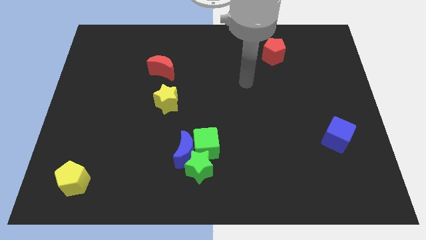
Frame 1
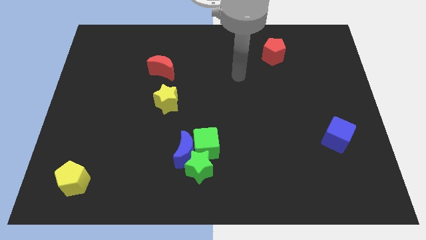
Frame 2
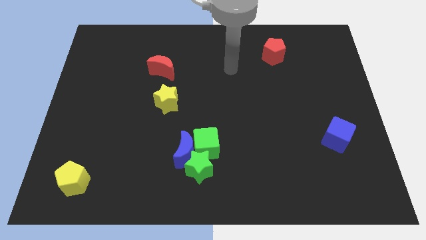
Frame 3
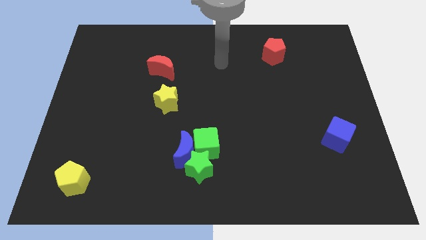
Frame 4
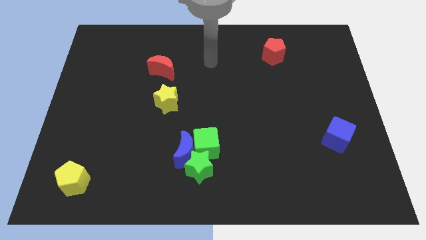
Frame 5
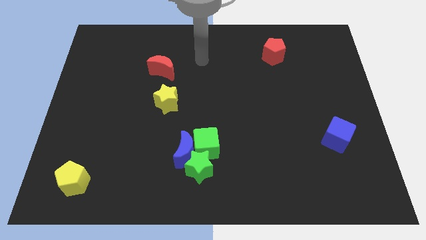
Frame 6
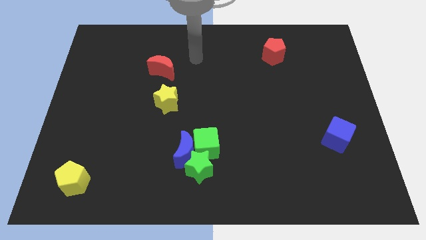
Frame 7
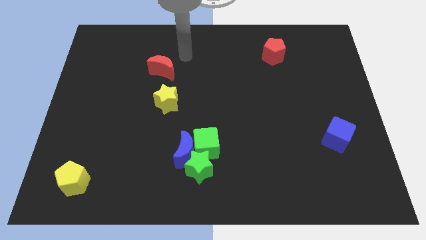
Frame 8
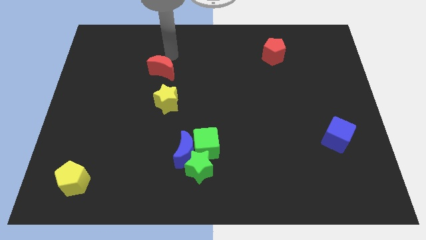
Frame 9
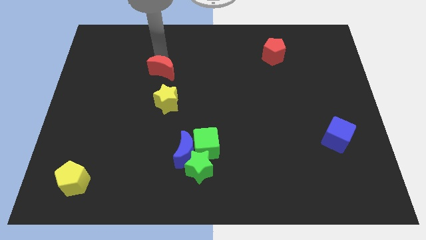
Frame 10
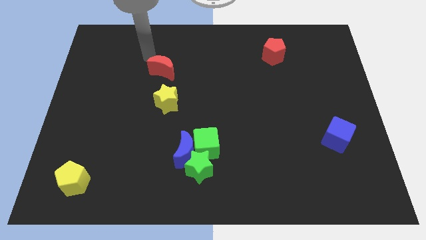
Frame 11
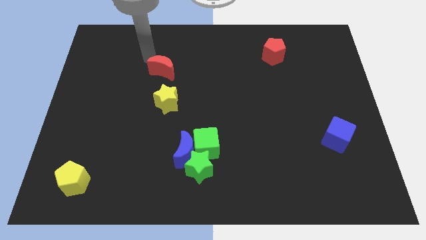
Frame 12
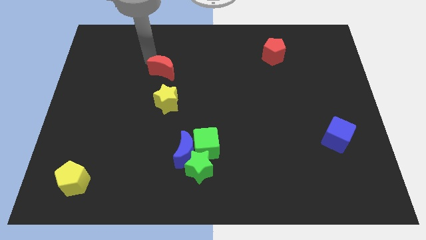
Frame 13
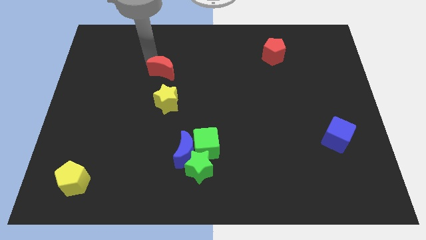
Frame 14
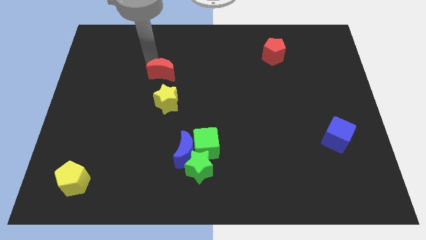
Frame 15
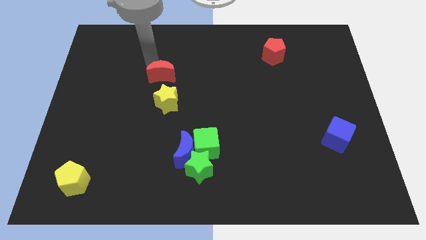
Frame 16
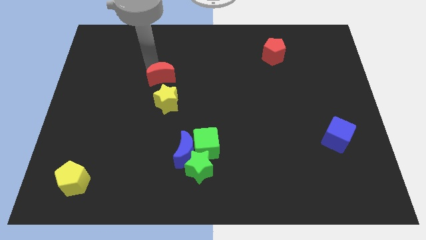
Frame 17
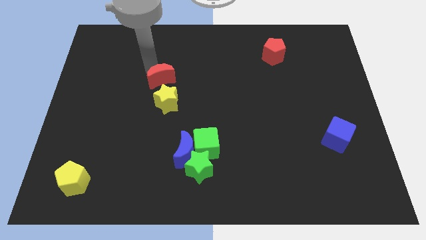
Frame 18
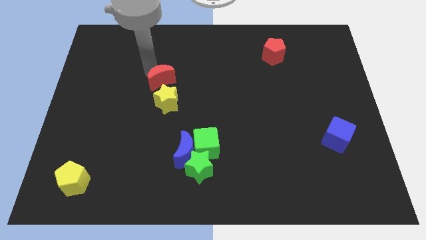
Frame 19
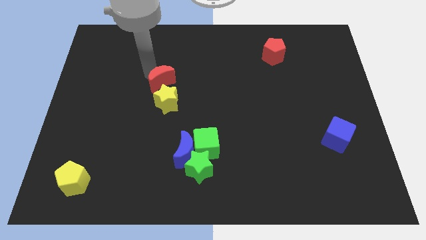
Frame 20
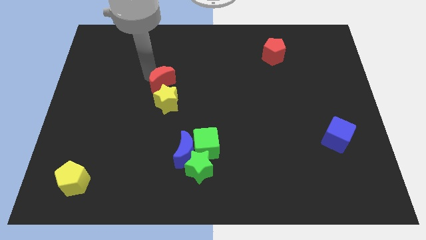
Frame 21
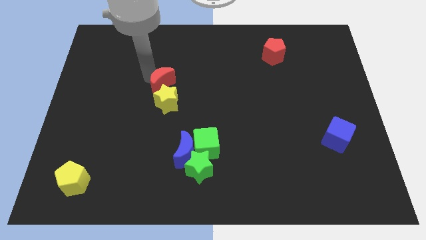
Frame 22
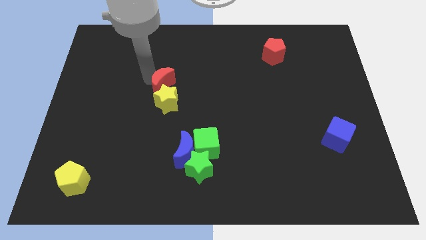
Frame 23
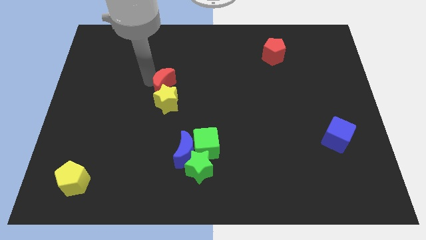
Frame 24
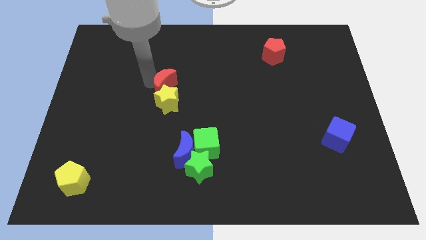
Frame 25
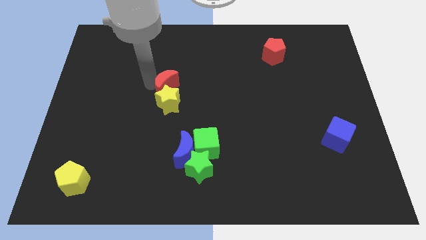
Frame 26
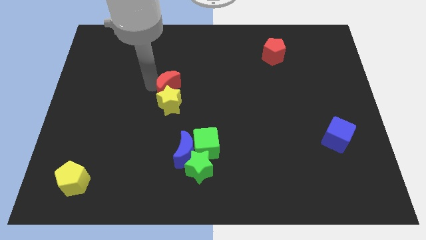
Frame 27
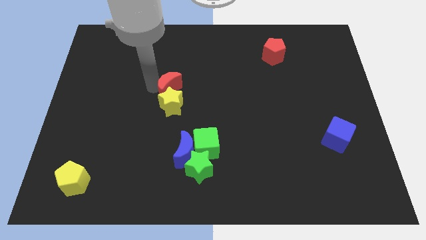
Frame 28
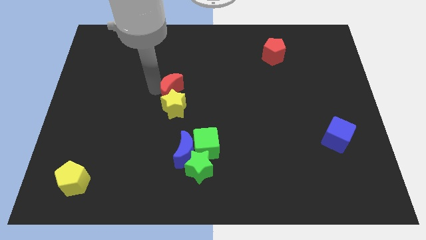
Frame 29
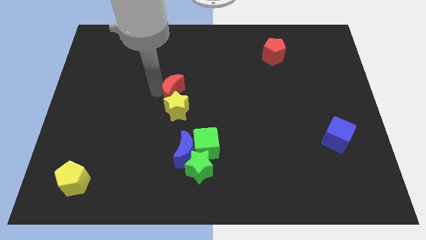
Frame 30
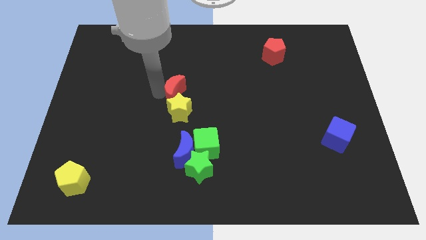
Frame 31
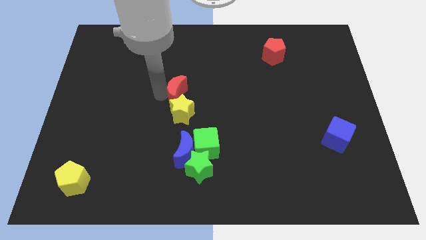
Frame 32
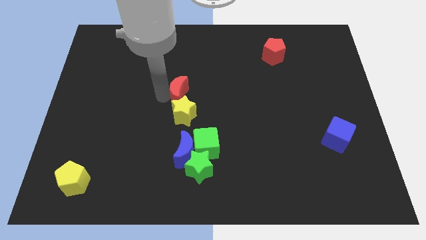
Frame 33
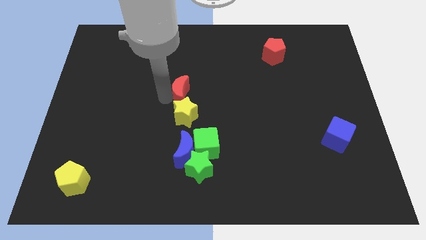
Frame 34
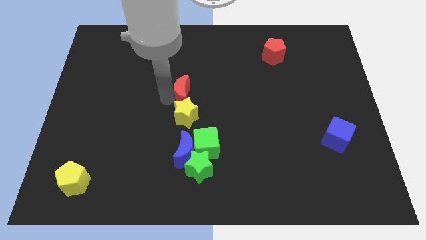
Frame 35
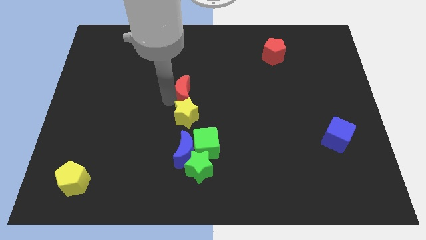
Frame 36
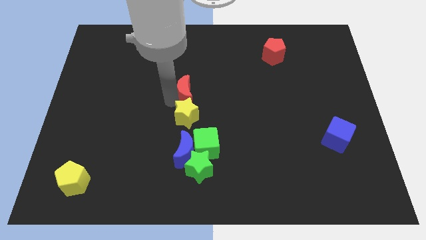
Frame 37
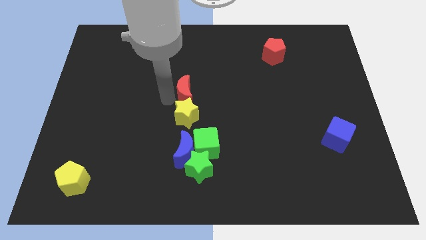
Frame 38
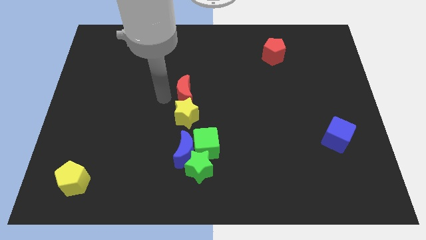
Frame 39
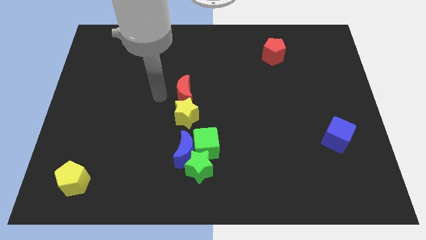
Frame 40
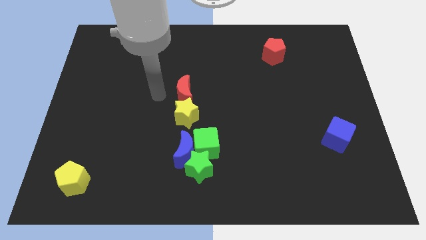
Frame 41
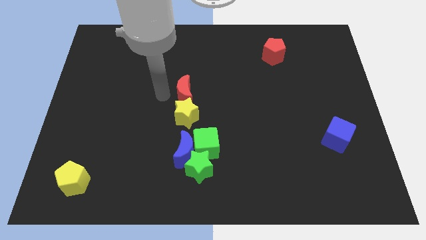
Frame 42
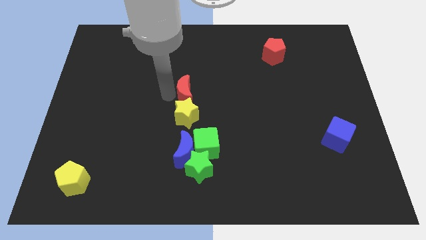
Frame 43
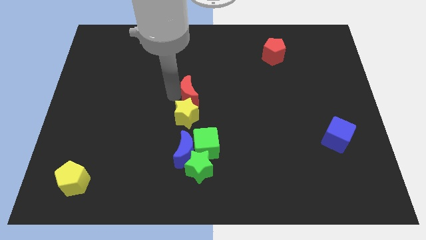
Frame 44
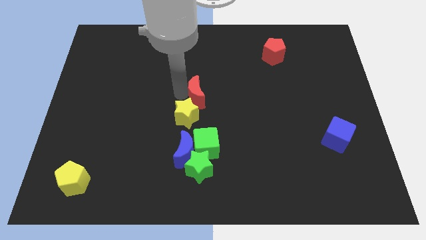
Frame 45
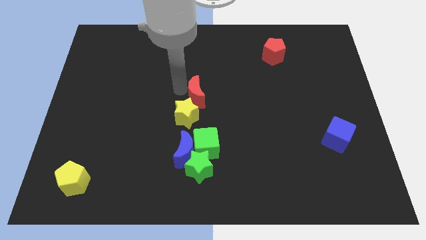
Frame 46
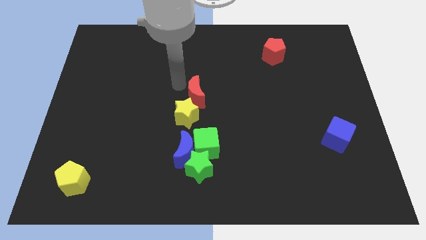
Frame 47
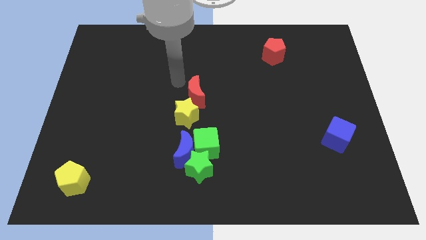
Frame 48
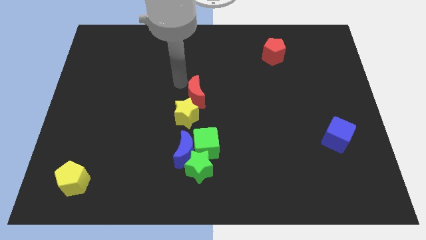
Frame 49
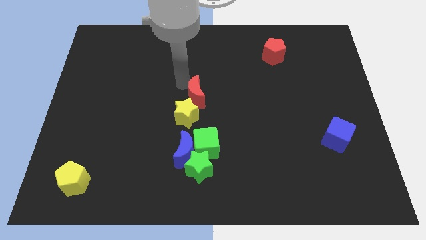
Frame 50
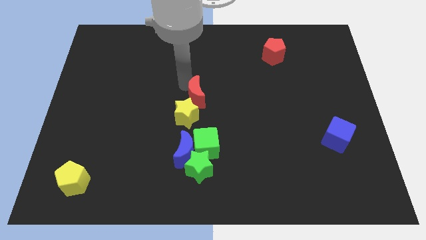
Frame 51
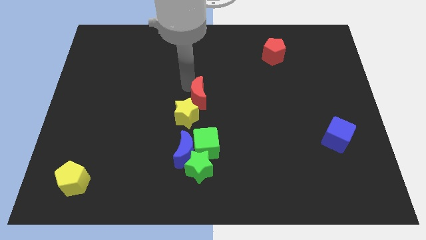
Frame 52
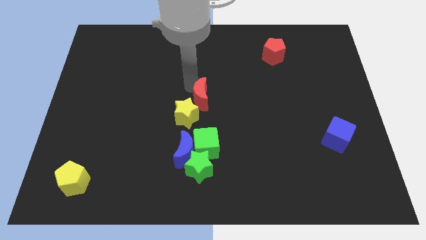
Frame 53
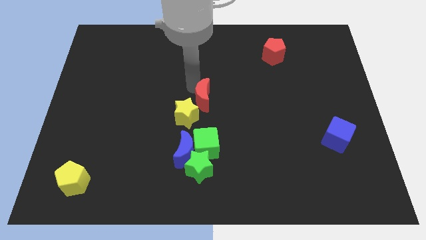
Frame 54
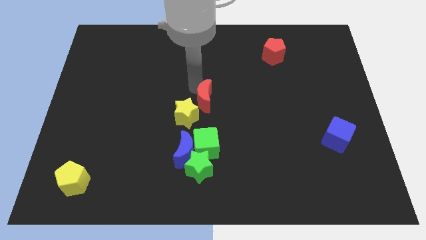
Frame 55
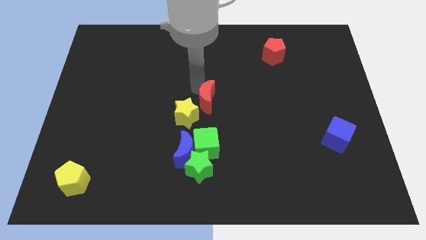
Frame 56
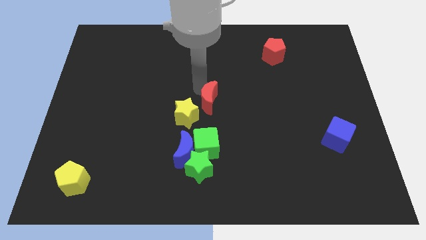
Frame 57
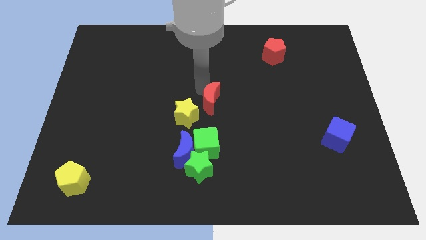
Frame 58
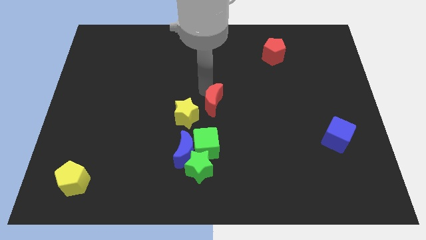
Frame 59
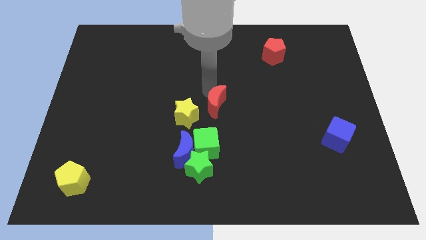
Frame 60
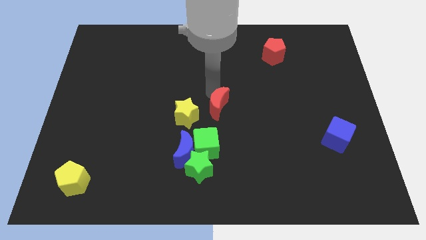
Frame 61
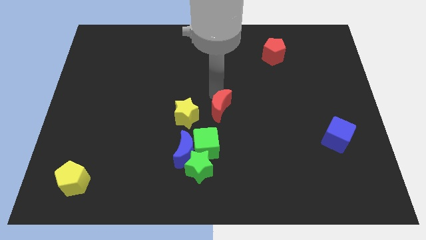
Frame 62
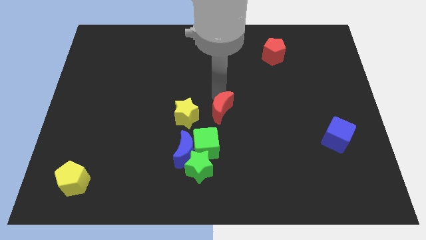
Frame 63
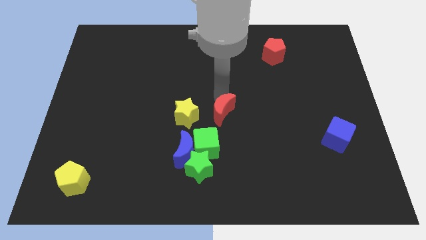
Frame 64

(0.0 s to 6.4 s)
move the red moon down and then to the right

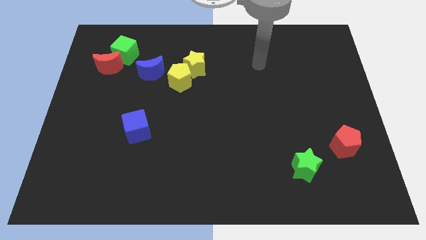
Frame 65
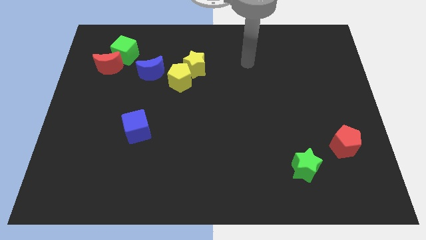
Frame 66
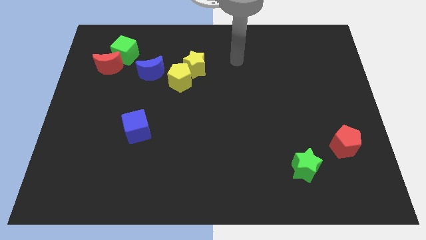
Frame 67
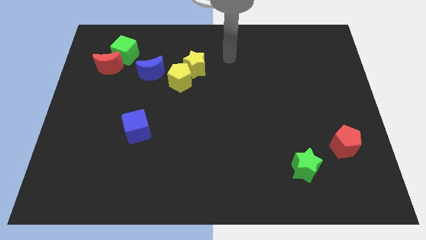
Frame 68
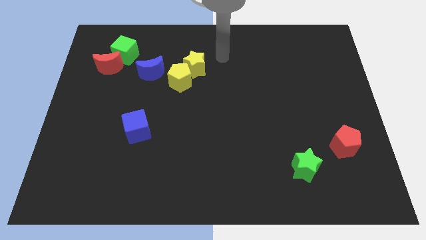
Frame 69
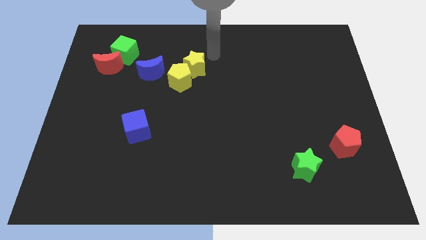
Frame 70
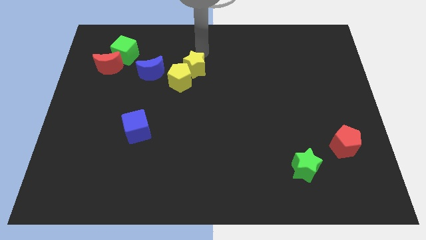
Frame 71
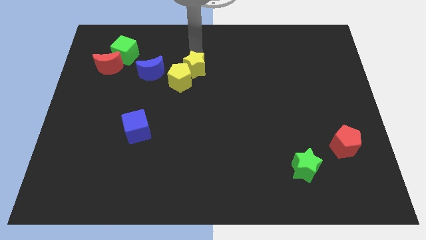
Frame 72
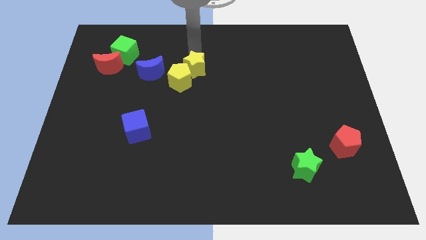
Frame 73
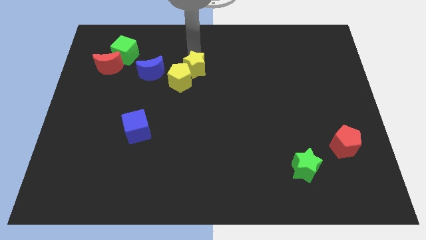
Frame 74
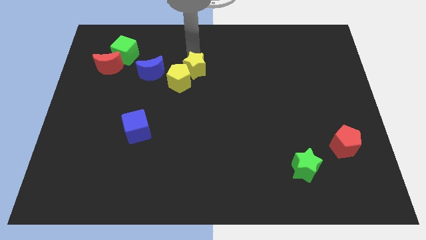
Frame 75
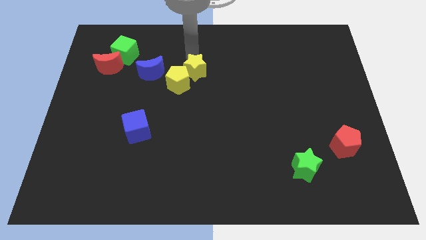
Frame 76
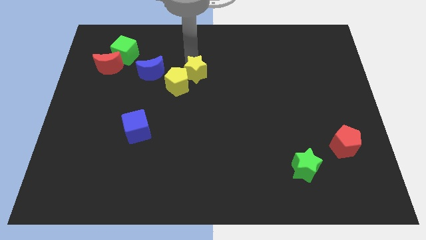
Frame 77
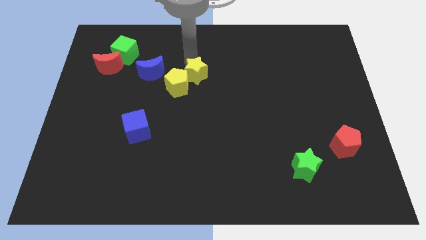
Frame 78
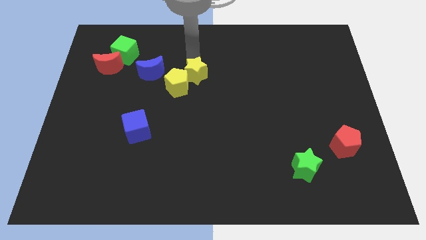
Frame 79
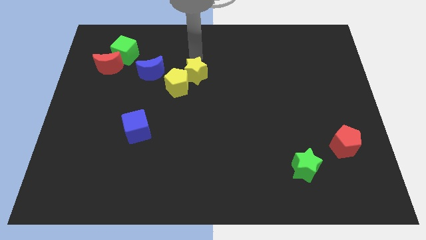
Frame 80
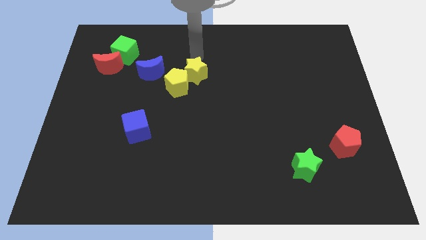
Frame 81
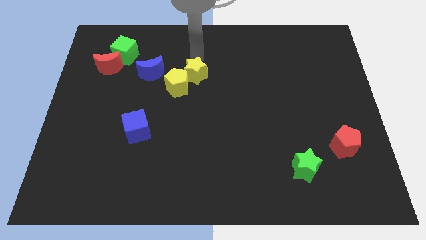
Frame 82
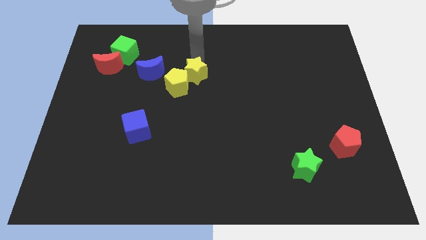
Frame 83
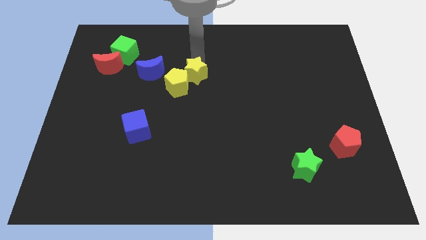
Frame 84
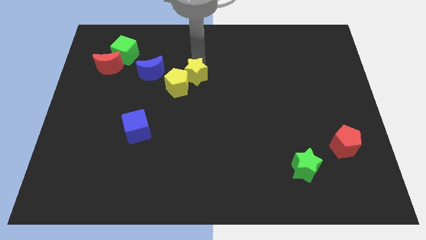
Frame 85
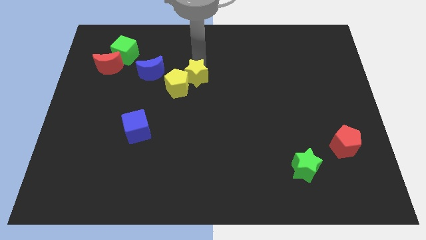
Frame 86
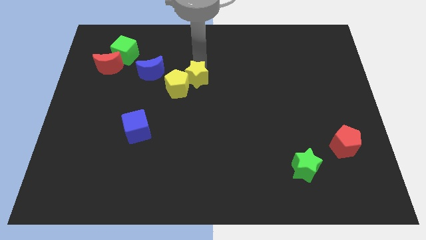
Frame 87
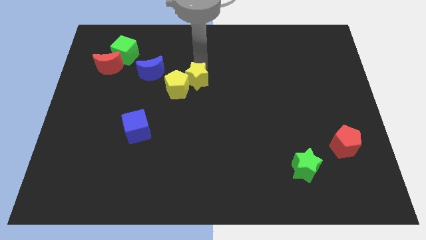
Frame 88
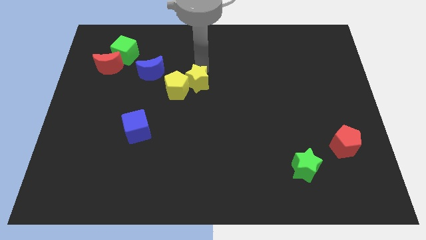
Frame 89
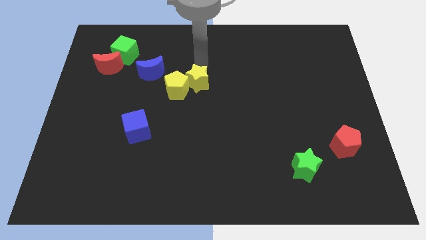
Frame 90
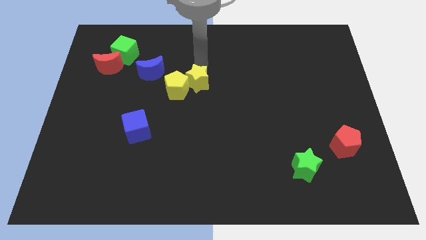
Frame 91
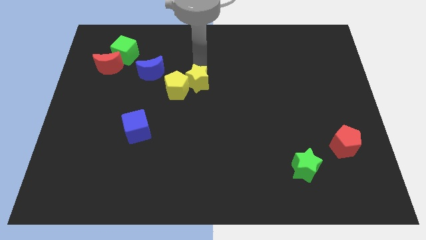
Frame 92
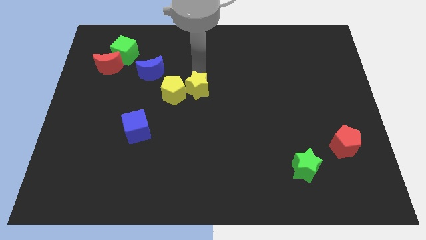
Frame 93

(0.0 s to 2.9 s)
move the yellow star slightly down
